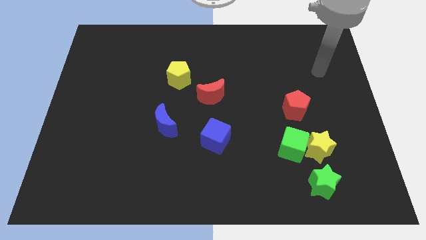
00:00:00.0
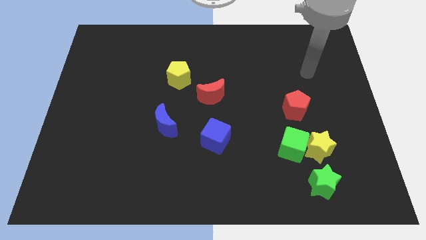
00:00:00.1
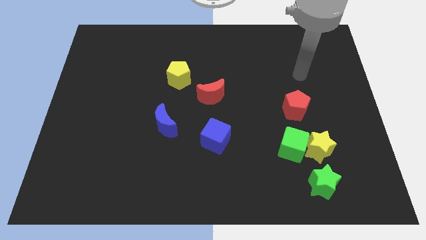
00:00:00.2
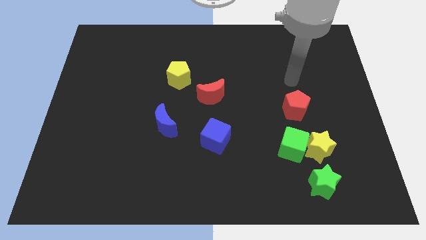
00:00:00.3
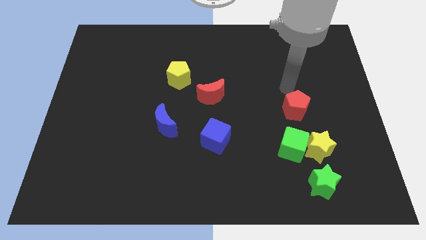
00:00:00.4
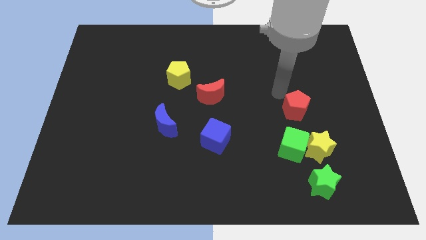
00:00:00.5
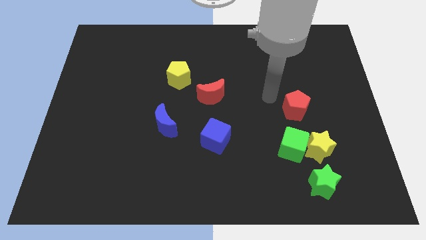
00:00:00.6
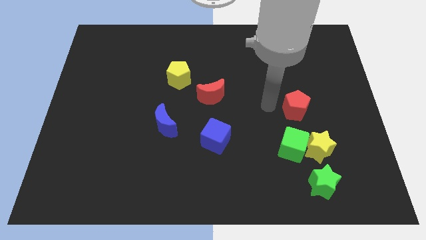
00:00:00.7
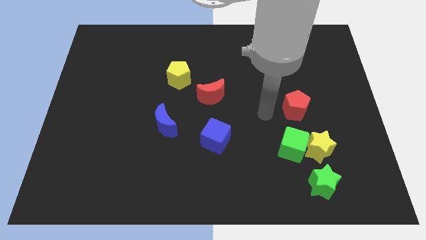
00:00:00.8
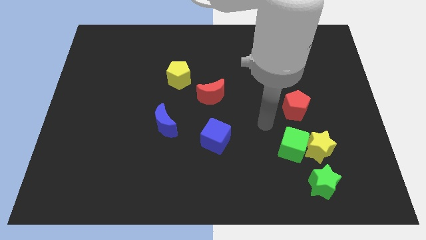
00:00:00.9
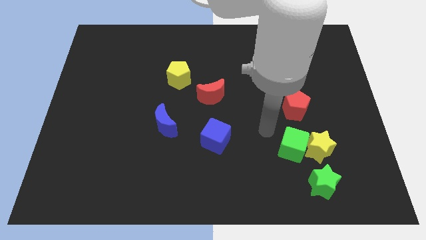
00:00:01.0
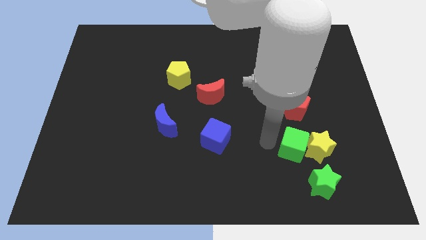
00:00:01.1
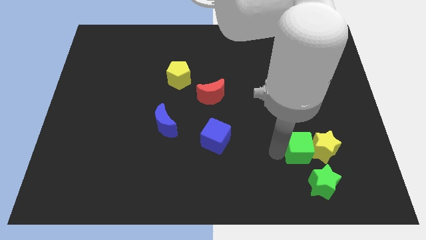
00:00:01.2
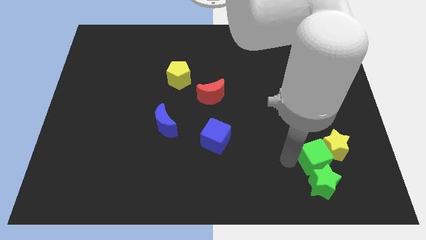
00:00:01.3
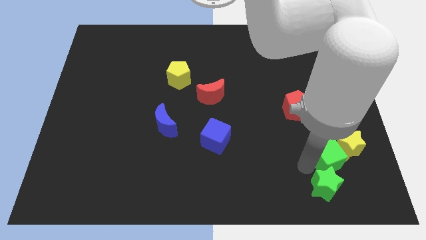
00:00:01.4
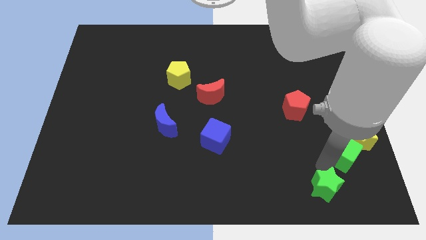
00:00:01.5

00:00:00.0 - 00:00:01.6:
pull the yellow star apart from the green cube and green star

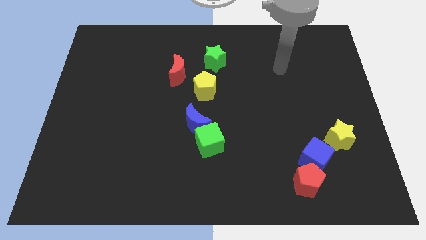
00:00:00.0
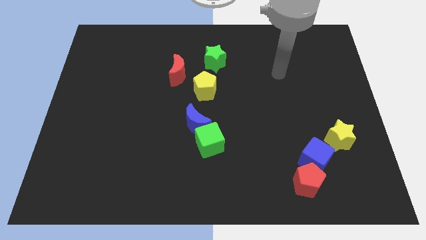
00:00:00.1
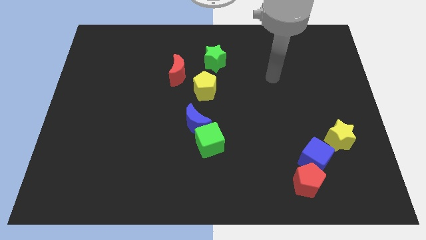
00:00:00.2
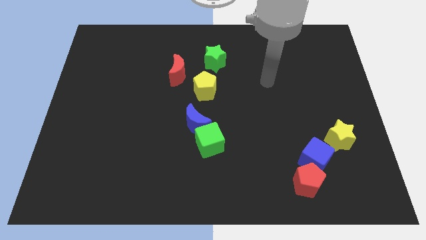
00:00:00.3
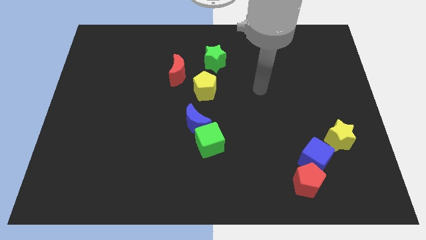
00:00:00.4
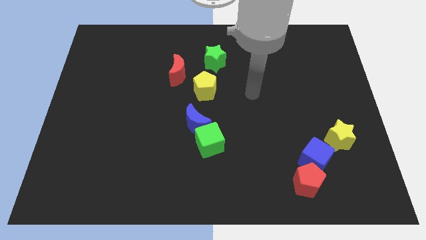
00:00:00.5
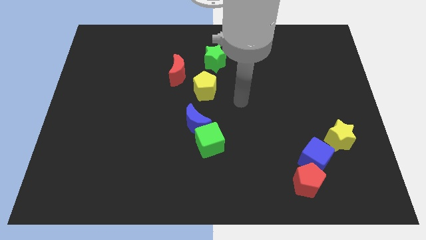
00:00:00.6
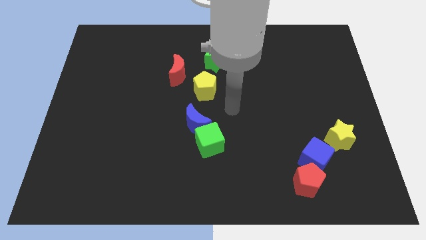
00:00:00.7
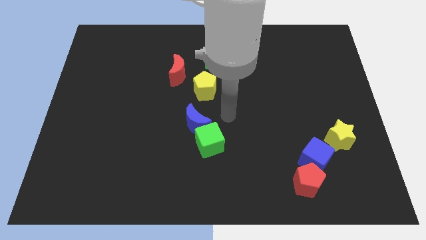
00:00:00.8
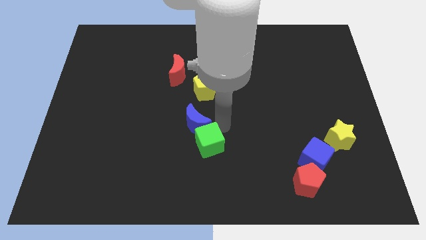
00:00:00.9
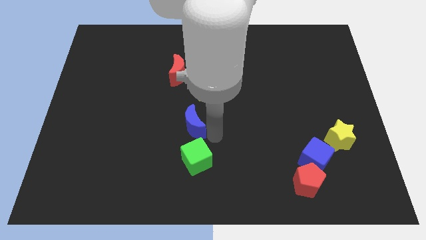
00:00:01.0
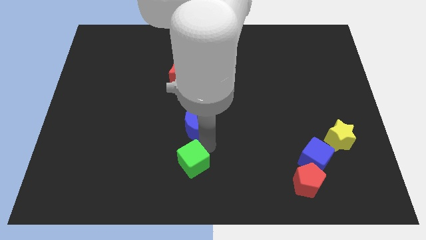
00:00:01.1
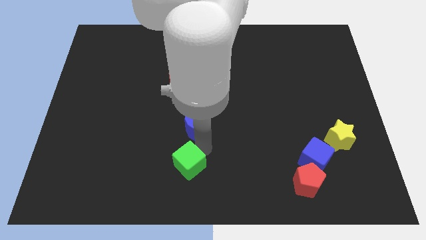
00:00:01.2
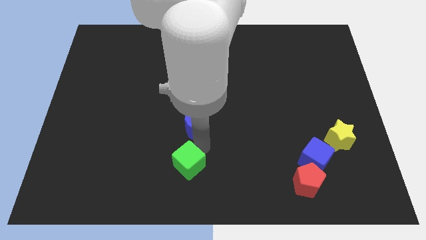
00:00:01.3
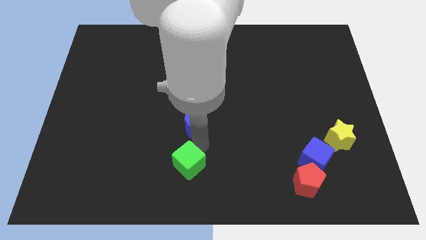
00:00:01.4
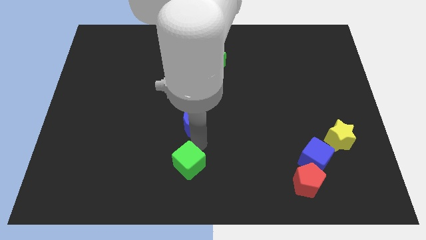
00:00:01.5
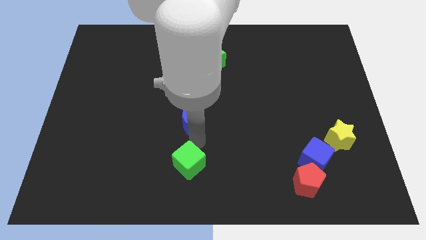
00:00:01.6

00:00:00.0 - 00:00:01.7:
separate the blue moon from the green cube

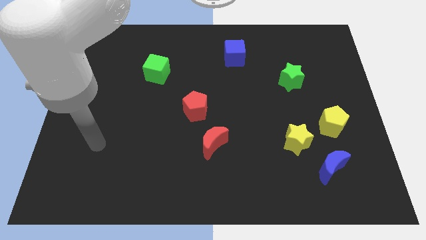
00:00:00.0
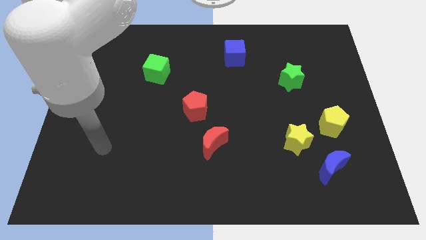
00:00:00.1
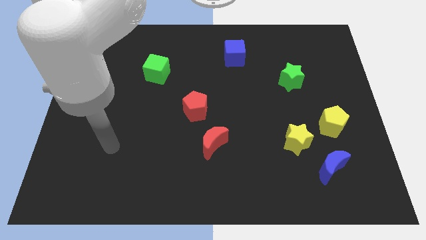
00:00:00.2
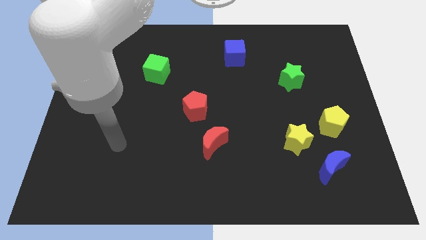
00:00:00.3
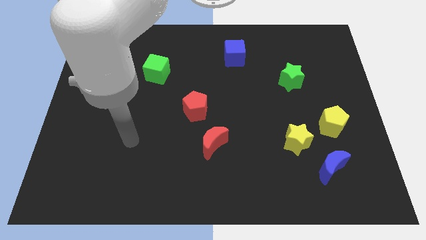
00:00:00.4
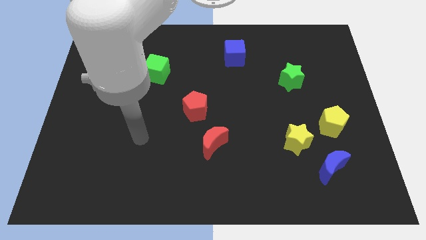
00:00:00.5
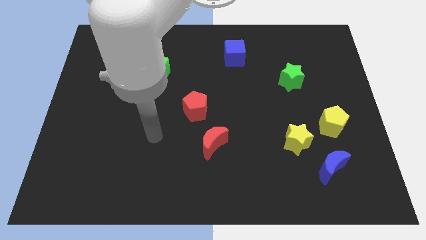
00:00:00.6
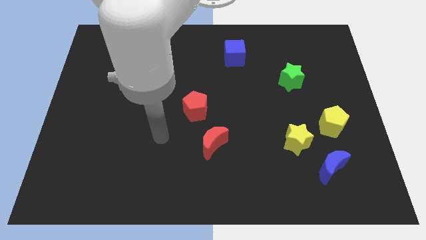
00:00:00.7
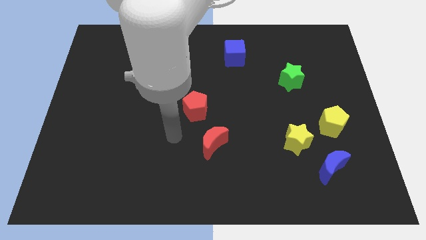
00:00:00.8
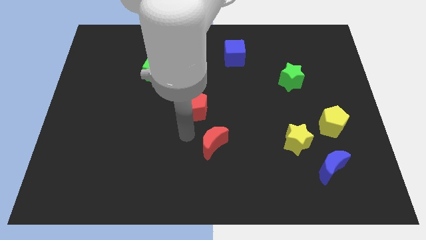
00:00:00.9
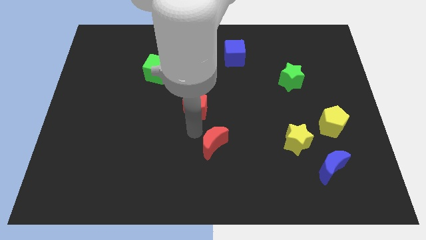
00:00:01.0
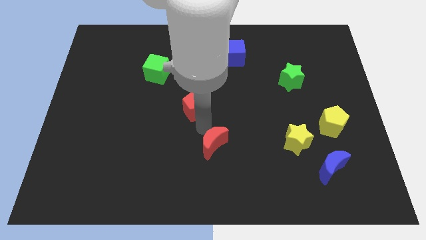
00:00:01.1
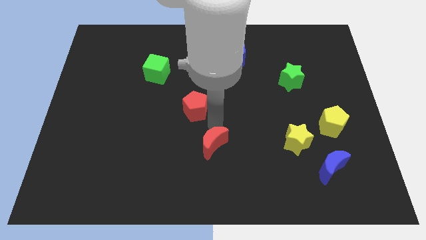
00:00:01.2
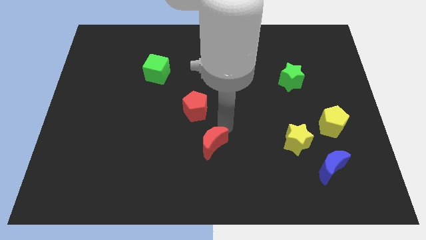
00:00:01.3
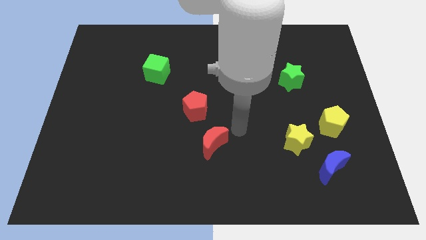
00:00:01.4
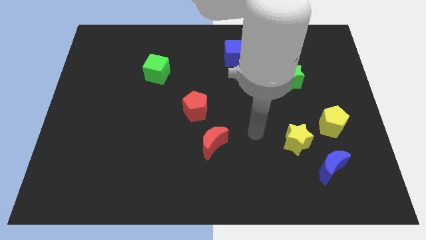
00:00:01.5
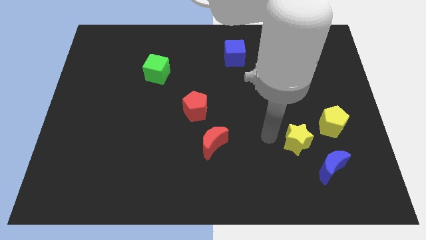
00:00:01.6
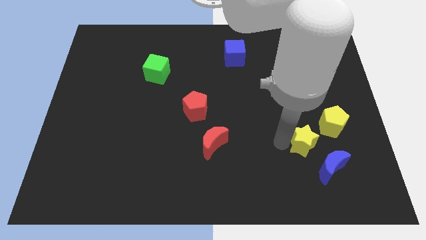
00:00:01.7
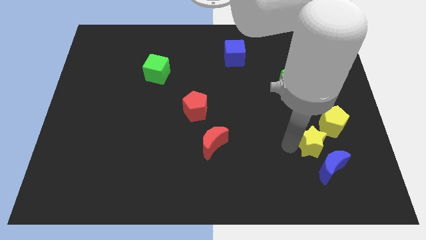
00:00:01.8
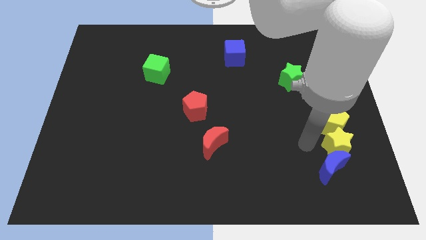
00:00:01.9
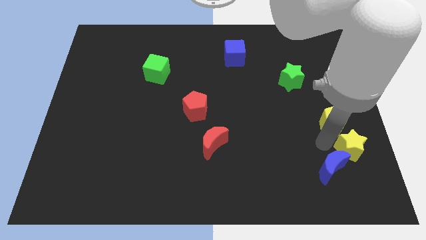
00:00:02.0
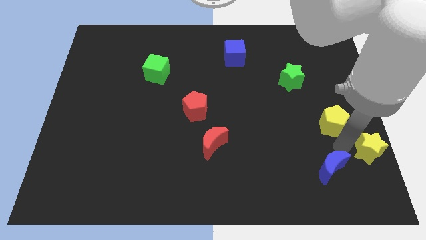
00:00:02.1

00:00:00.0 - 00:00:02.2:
move the blue moon away from the yellow star

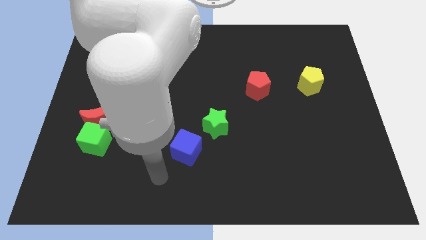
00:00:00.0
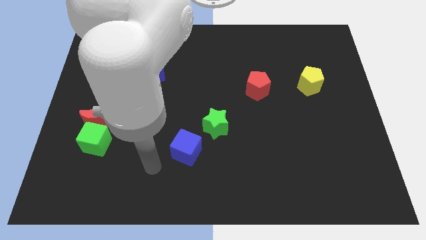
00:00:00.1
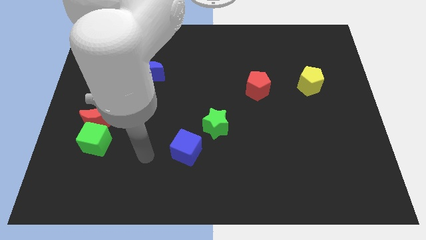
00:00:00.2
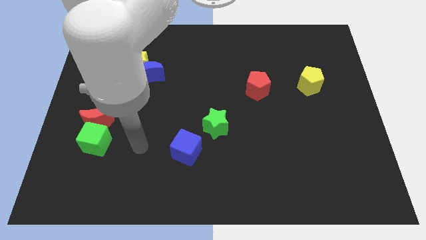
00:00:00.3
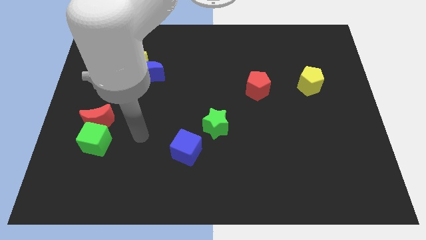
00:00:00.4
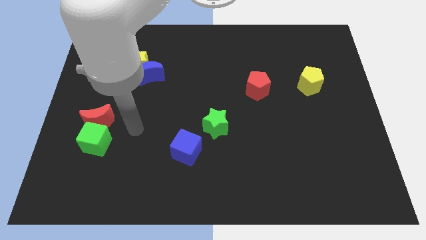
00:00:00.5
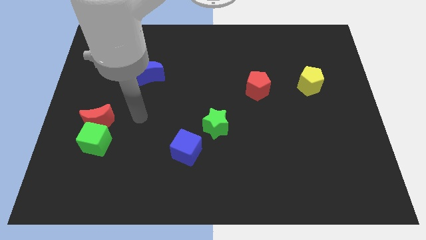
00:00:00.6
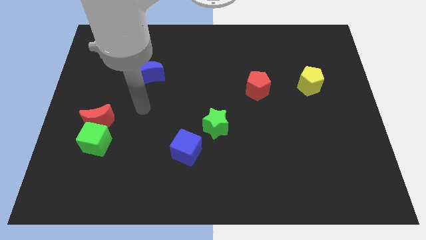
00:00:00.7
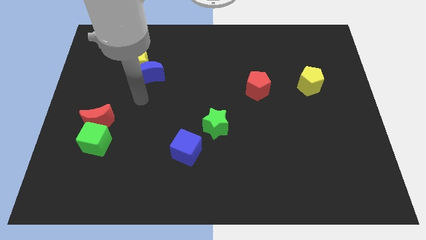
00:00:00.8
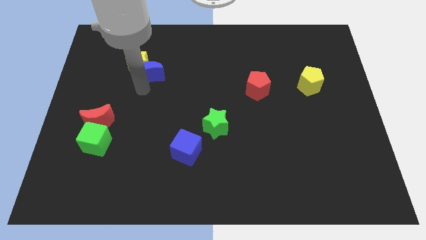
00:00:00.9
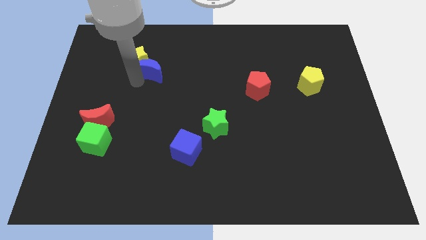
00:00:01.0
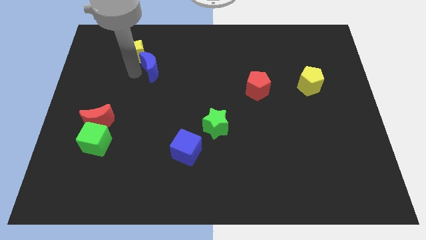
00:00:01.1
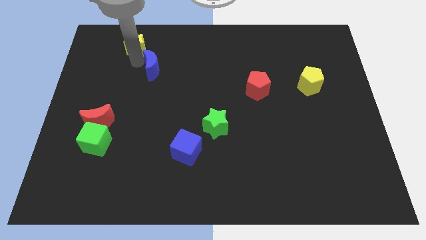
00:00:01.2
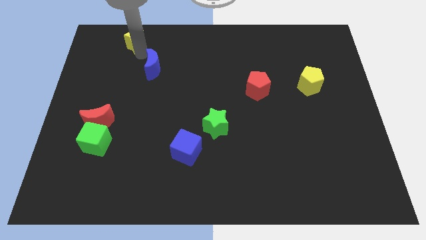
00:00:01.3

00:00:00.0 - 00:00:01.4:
separate the blue moon from the yellow star

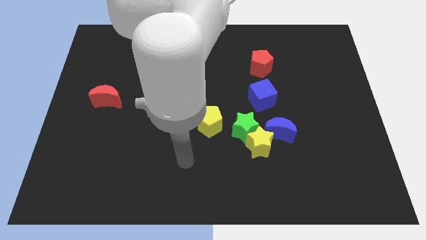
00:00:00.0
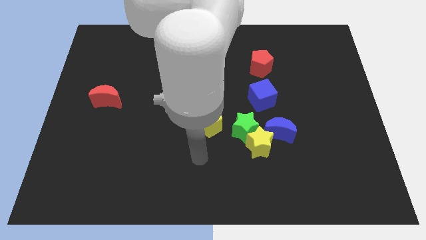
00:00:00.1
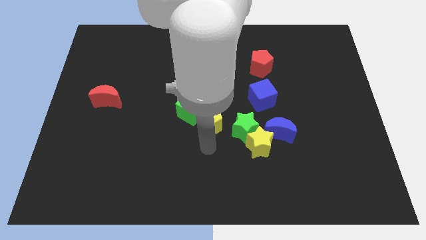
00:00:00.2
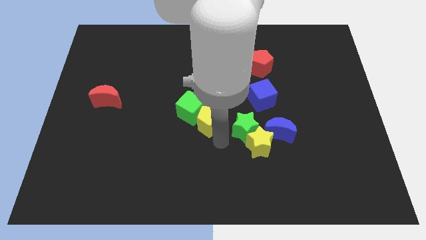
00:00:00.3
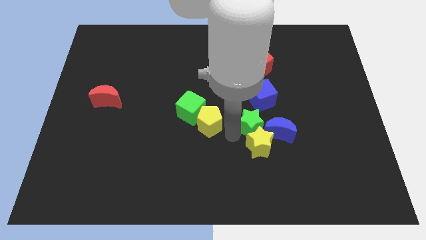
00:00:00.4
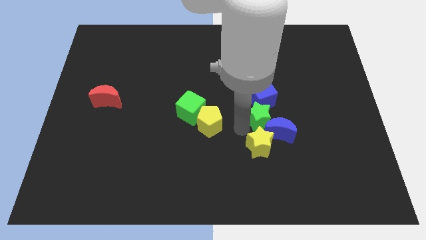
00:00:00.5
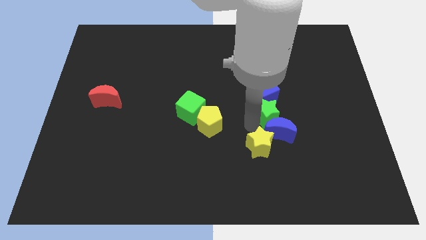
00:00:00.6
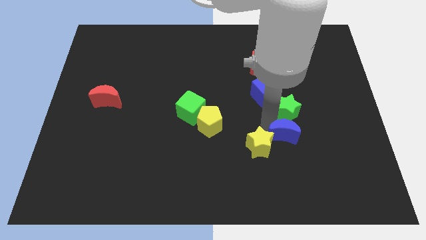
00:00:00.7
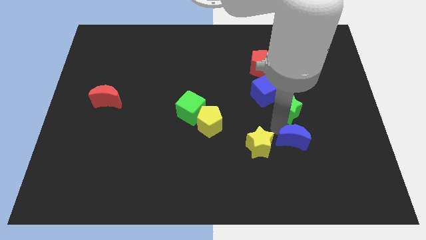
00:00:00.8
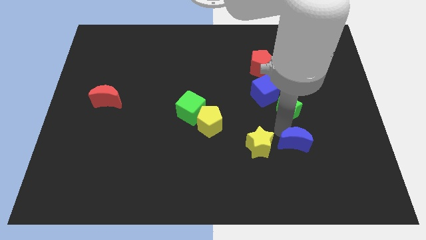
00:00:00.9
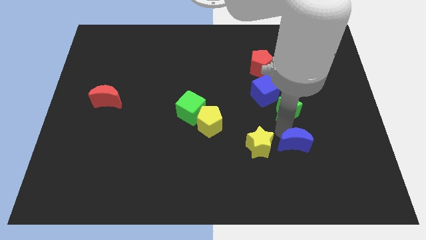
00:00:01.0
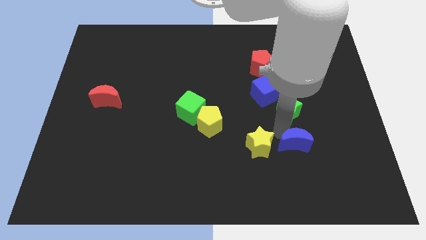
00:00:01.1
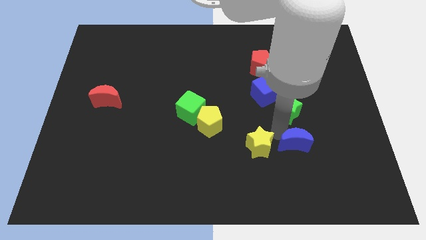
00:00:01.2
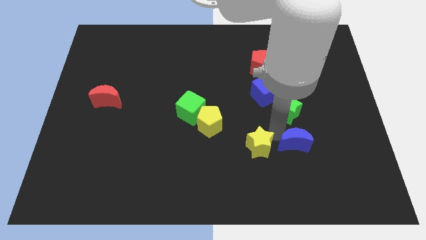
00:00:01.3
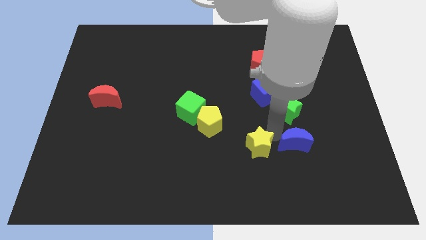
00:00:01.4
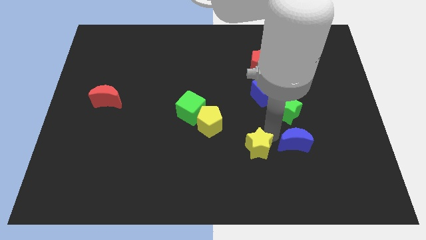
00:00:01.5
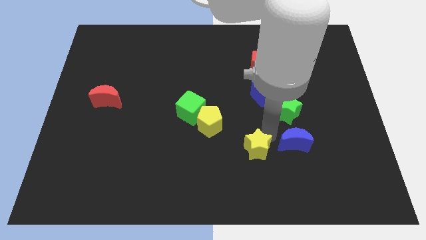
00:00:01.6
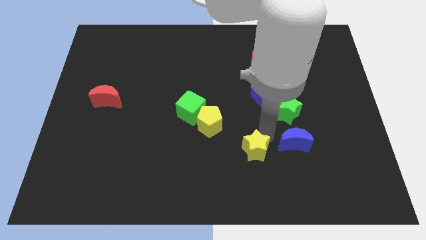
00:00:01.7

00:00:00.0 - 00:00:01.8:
pull the yellow star apart from the green star and blue moon

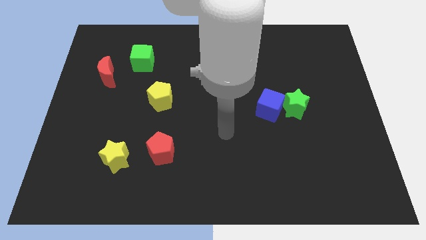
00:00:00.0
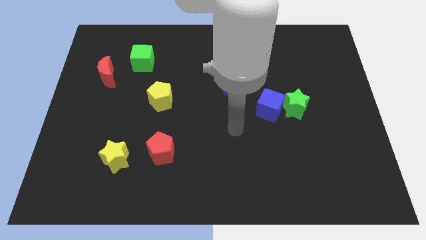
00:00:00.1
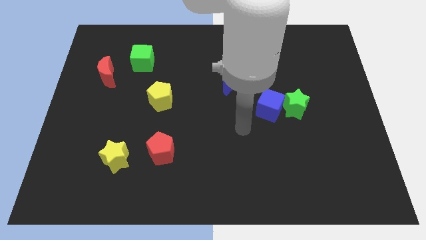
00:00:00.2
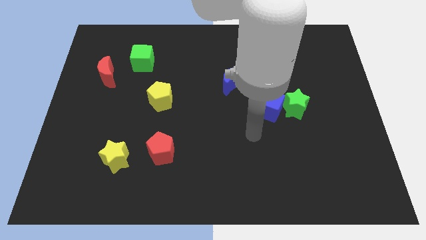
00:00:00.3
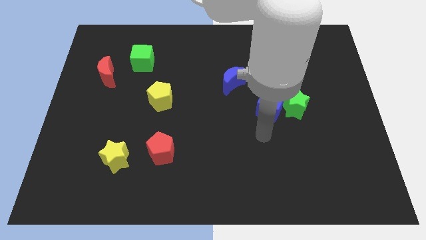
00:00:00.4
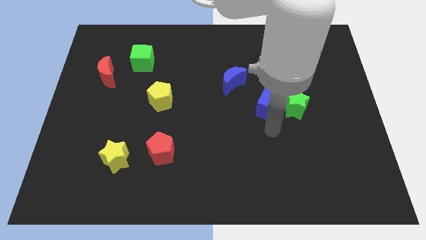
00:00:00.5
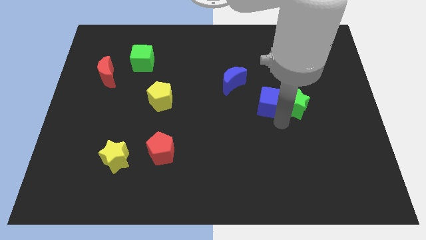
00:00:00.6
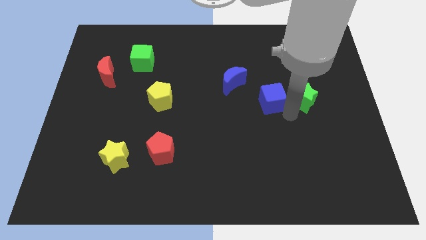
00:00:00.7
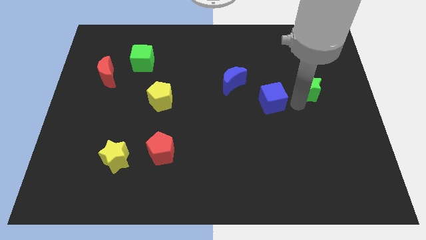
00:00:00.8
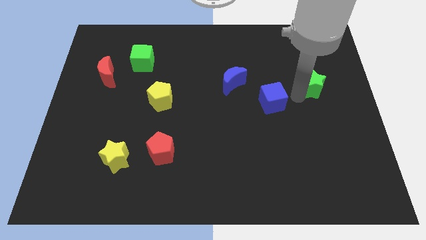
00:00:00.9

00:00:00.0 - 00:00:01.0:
separate the blue cube from the green star
